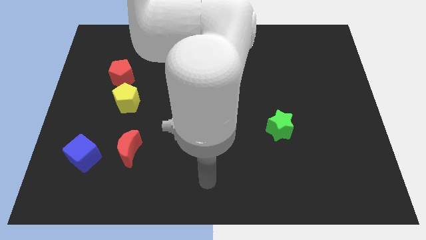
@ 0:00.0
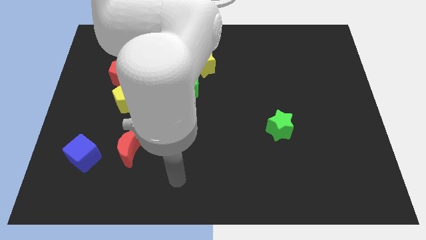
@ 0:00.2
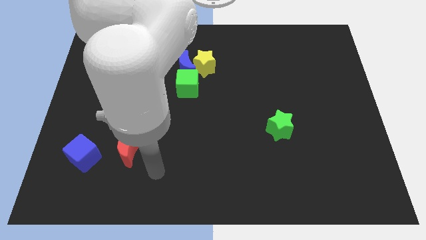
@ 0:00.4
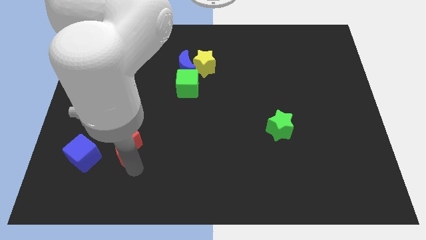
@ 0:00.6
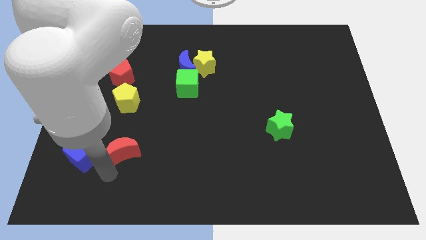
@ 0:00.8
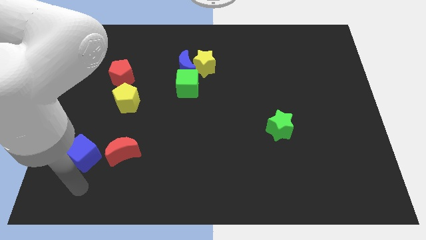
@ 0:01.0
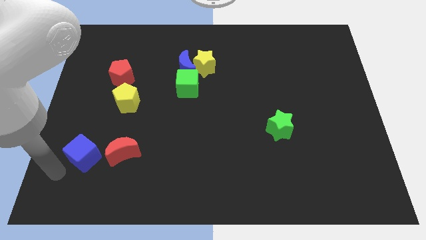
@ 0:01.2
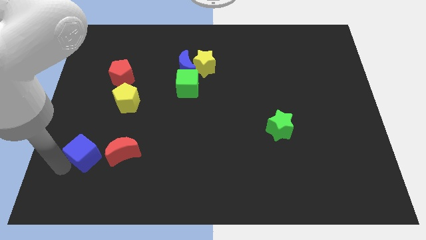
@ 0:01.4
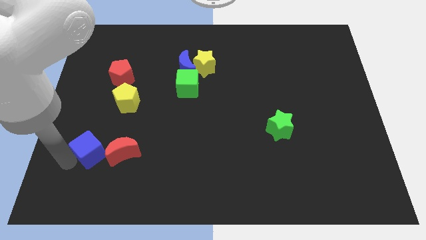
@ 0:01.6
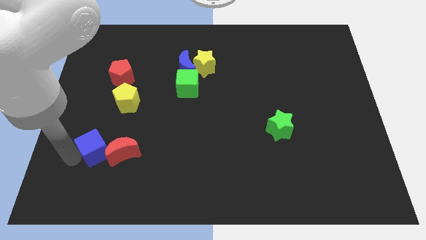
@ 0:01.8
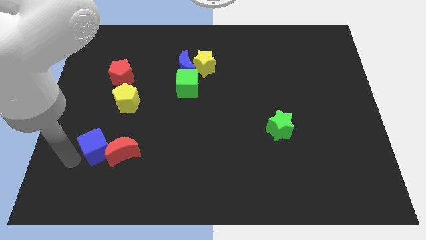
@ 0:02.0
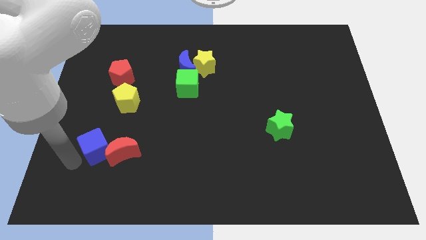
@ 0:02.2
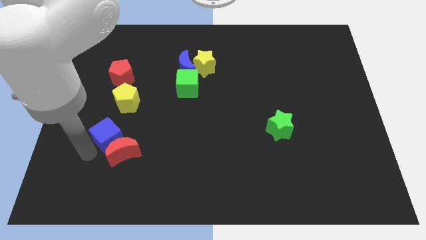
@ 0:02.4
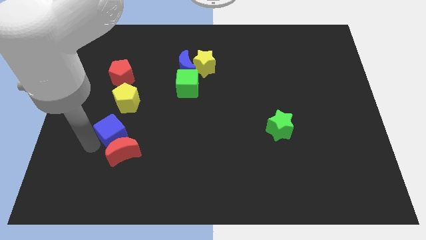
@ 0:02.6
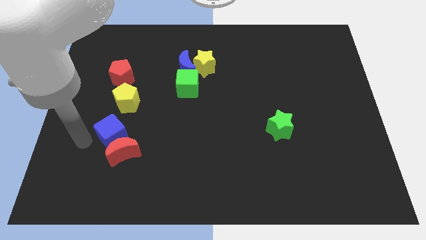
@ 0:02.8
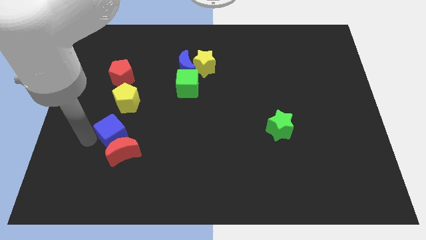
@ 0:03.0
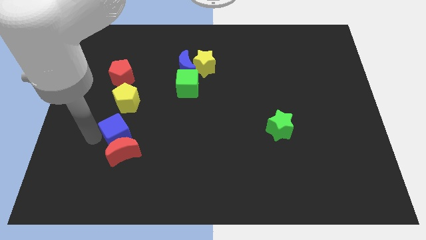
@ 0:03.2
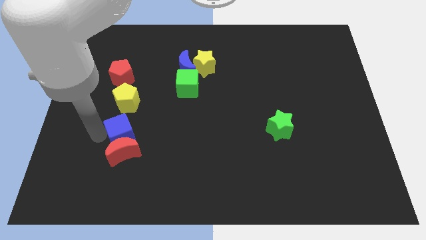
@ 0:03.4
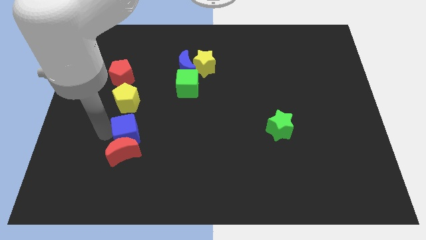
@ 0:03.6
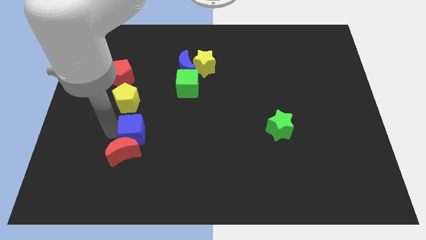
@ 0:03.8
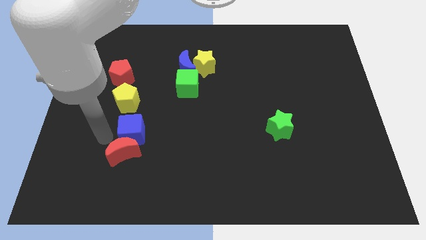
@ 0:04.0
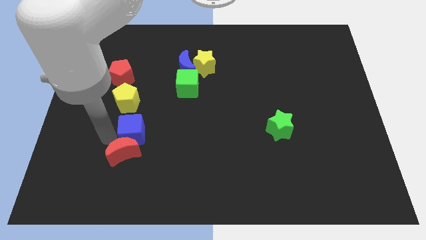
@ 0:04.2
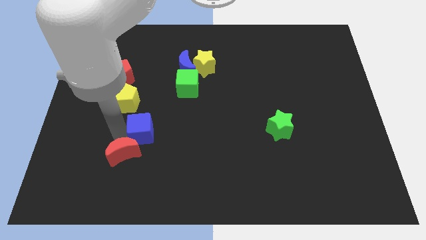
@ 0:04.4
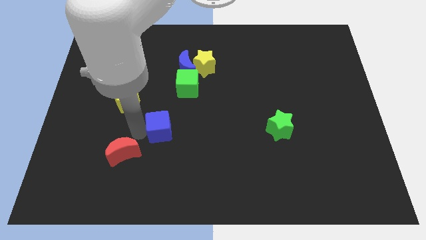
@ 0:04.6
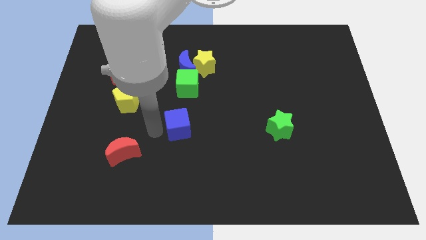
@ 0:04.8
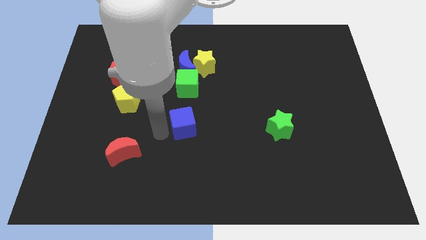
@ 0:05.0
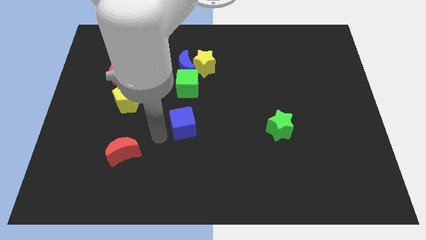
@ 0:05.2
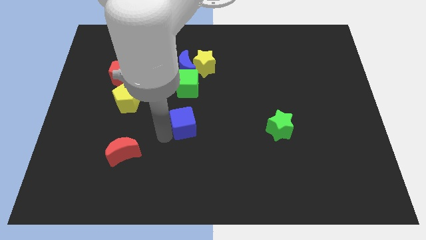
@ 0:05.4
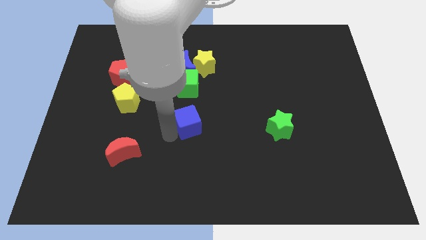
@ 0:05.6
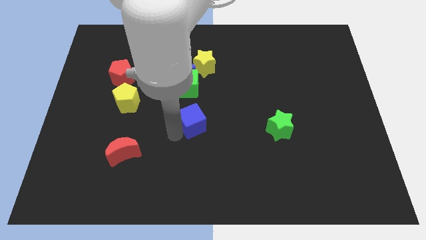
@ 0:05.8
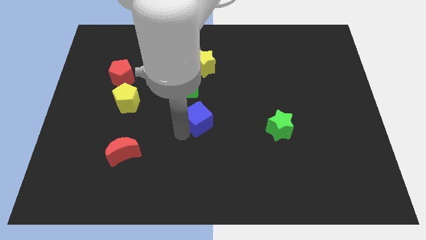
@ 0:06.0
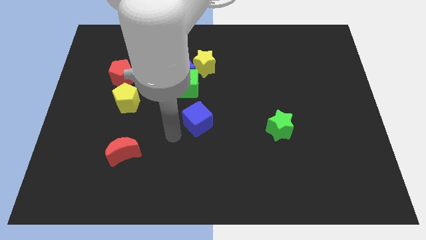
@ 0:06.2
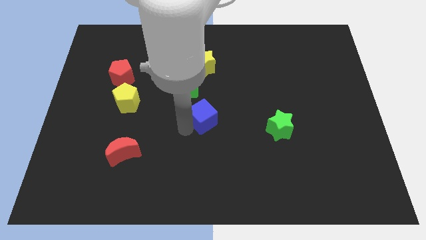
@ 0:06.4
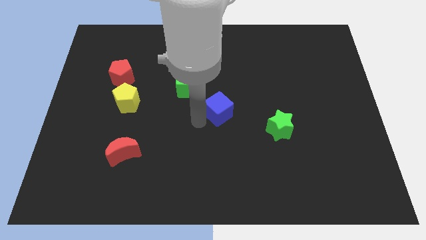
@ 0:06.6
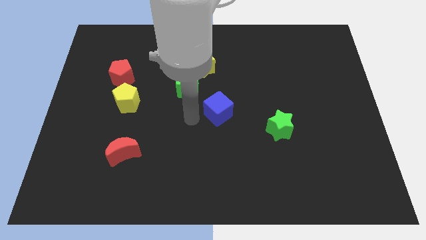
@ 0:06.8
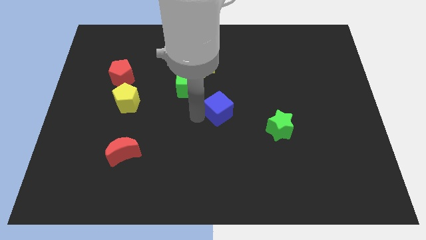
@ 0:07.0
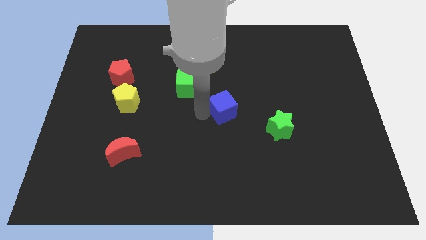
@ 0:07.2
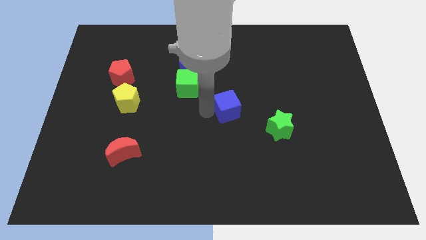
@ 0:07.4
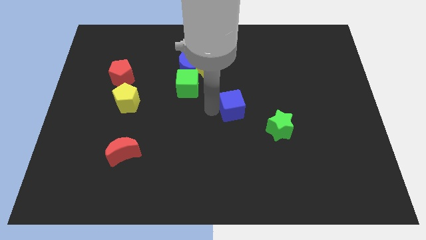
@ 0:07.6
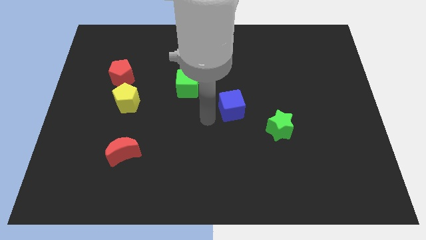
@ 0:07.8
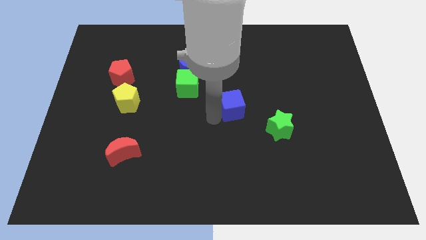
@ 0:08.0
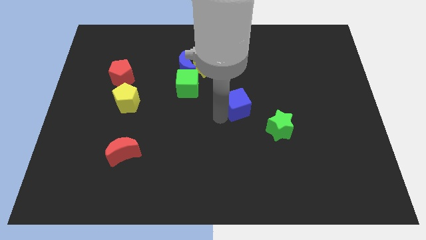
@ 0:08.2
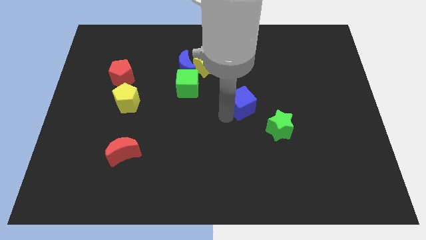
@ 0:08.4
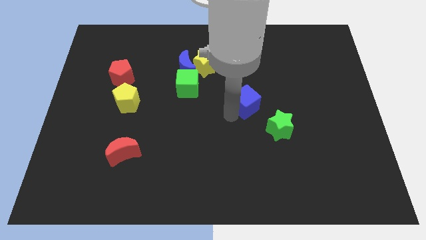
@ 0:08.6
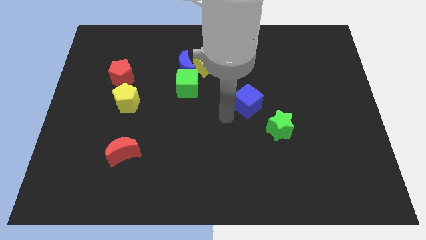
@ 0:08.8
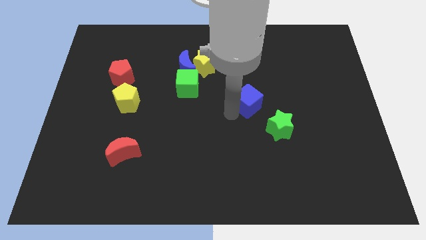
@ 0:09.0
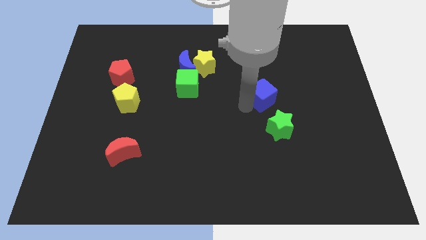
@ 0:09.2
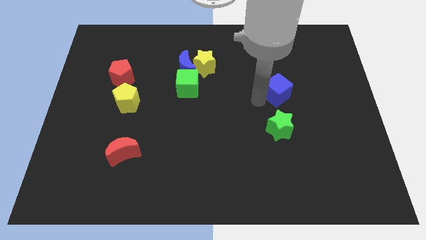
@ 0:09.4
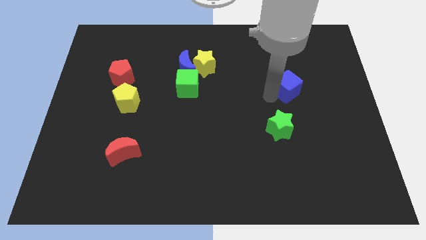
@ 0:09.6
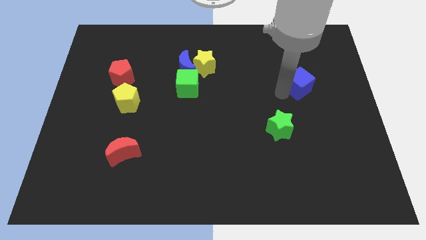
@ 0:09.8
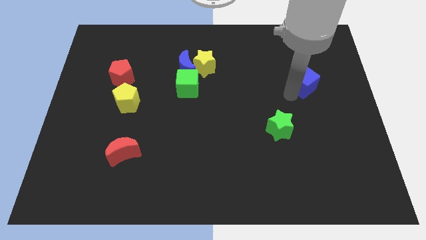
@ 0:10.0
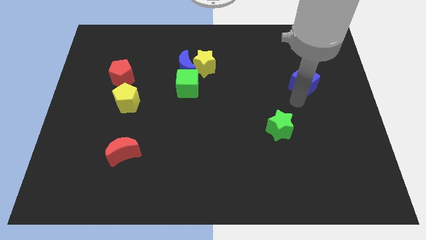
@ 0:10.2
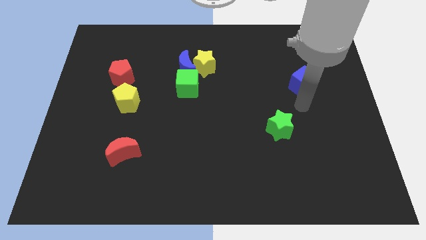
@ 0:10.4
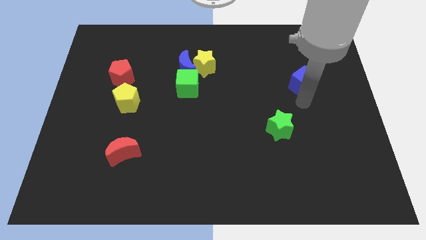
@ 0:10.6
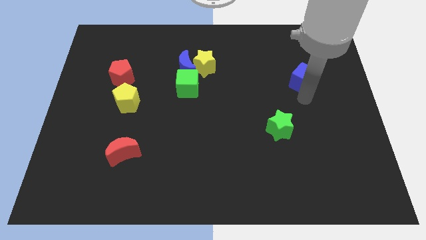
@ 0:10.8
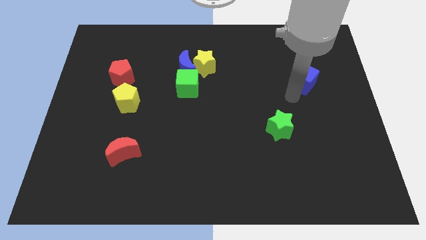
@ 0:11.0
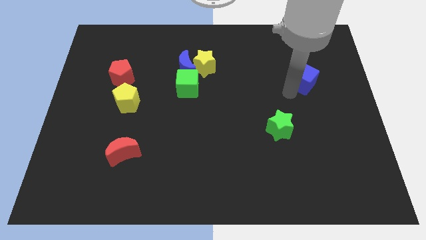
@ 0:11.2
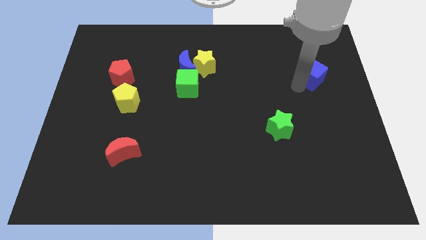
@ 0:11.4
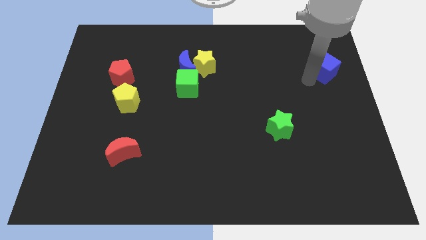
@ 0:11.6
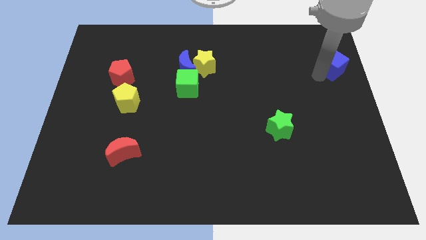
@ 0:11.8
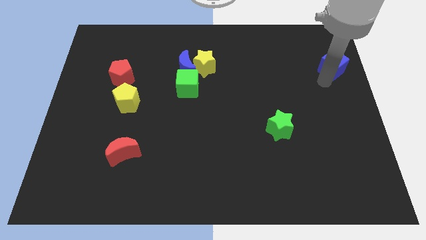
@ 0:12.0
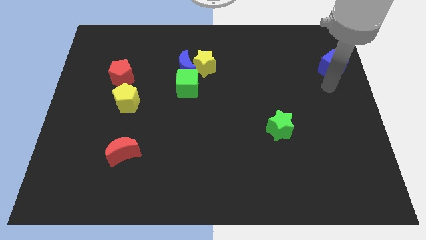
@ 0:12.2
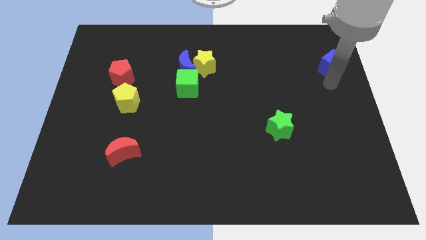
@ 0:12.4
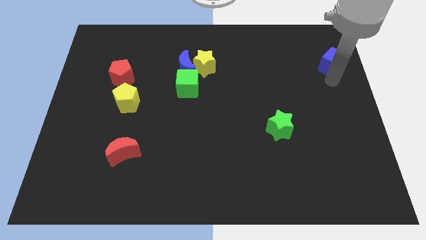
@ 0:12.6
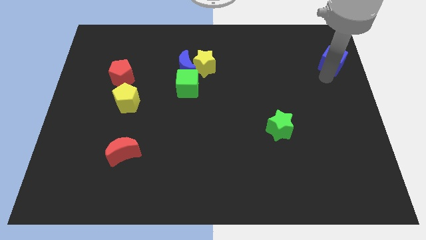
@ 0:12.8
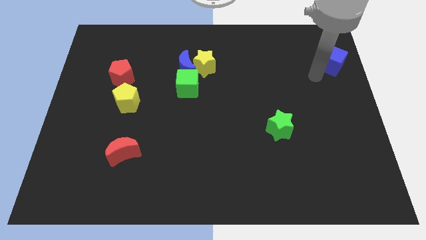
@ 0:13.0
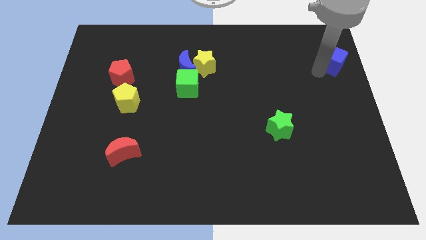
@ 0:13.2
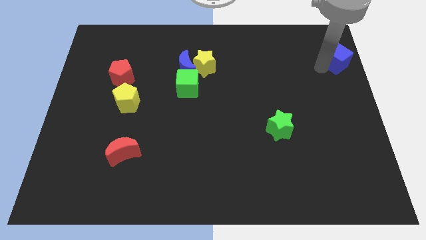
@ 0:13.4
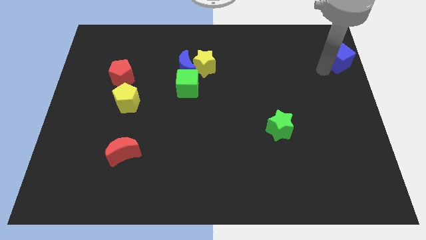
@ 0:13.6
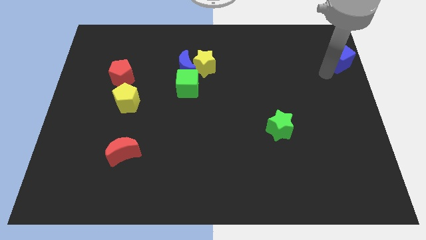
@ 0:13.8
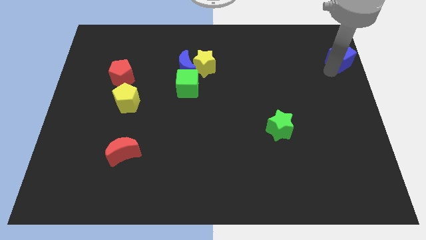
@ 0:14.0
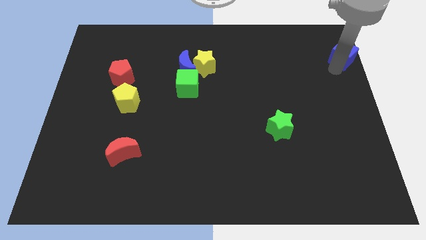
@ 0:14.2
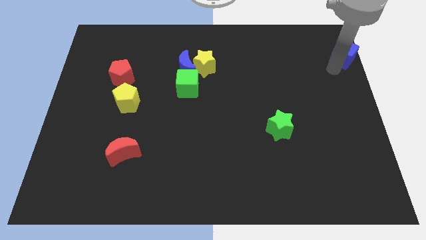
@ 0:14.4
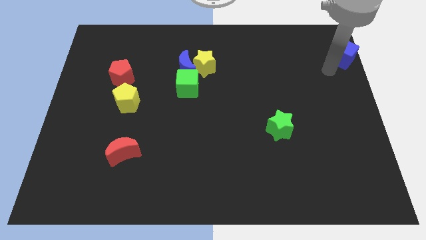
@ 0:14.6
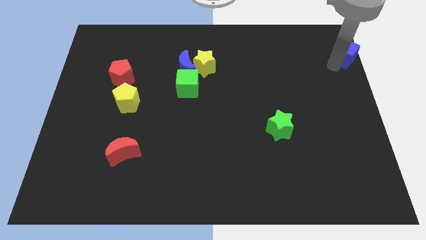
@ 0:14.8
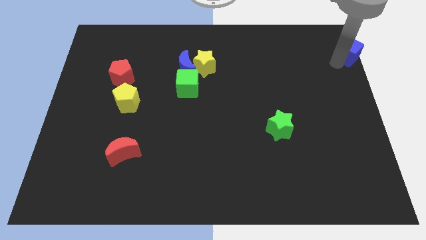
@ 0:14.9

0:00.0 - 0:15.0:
move the blue cube to the upper right corner
